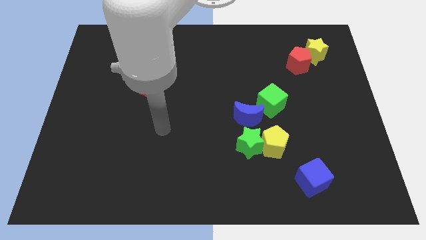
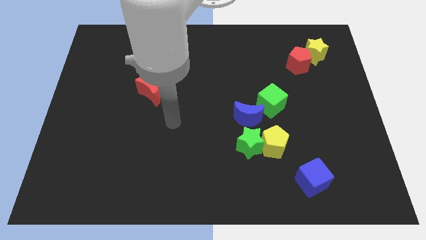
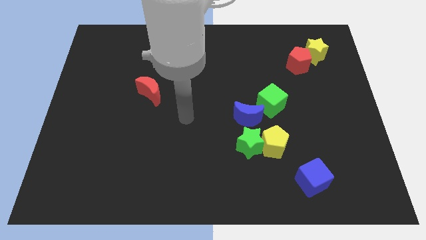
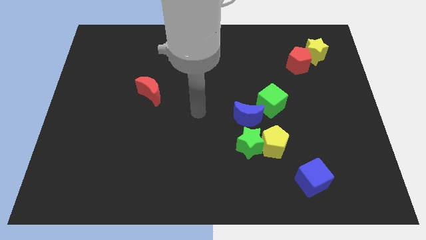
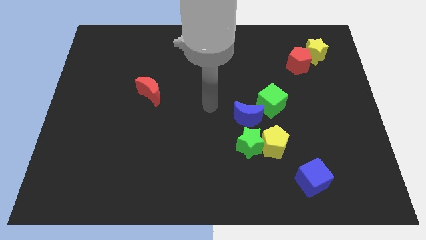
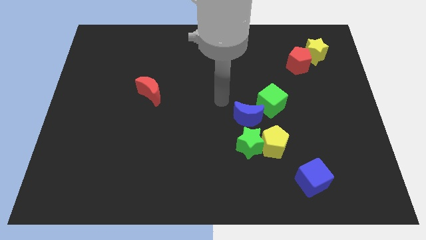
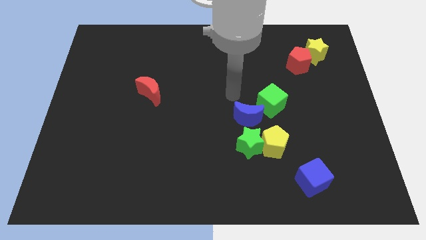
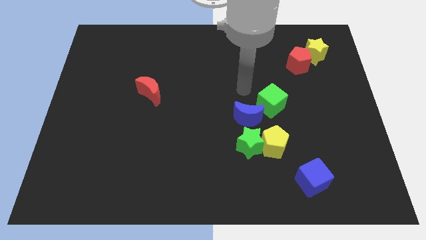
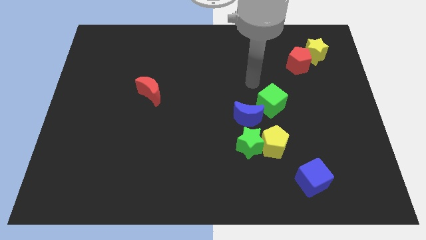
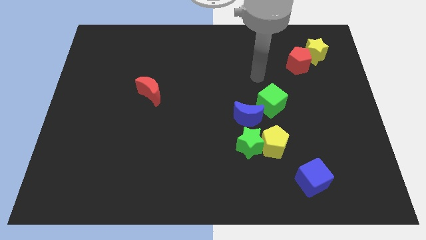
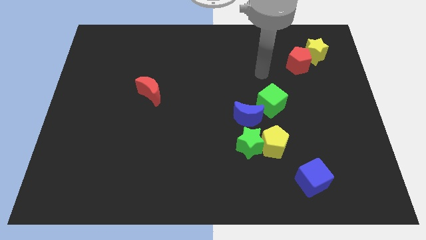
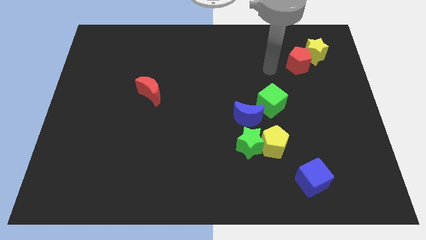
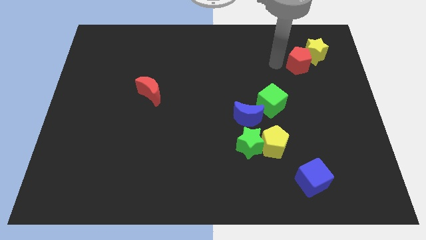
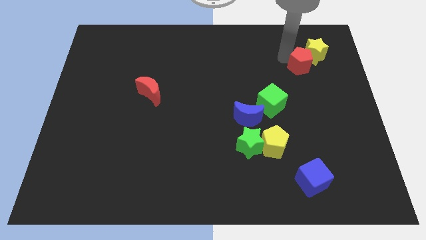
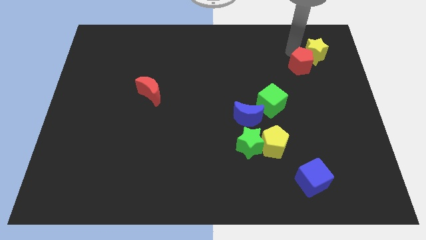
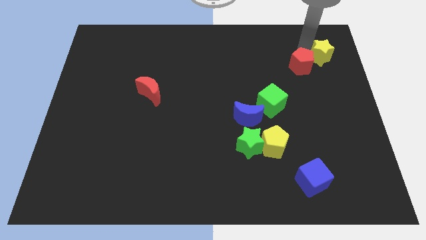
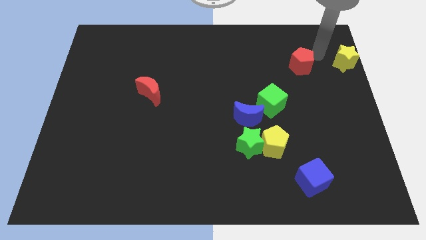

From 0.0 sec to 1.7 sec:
pull the red pentagon apart from the yellow star

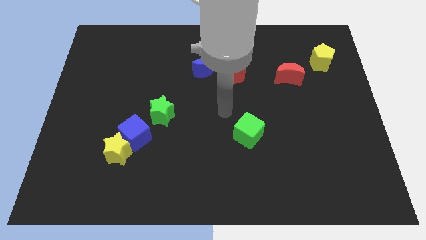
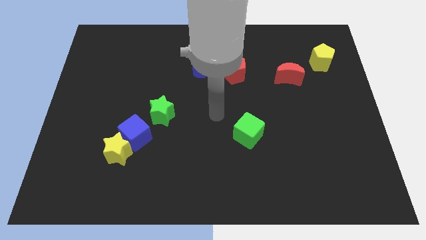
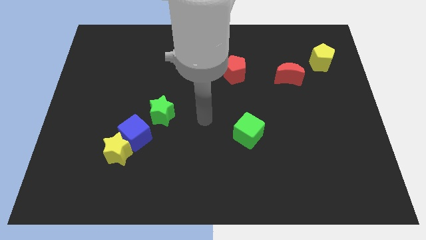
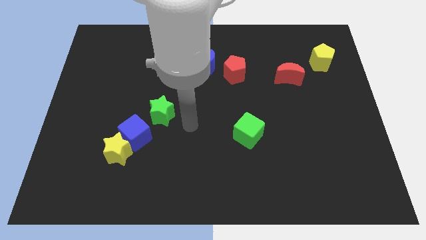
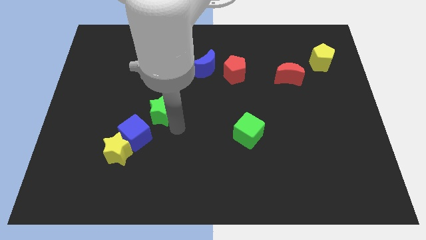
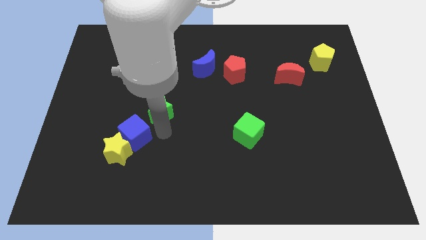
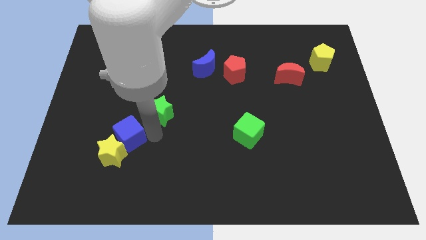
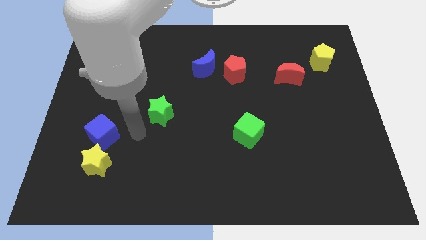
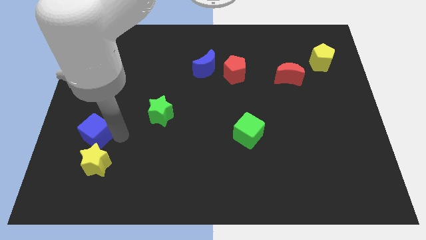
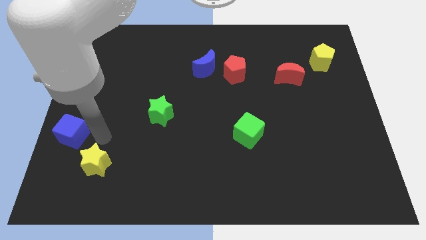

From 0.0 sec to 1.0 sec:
separate the yellow star from the blue cube

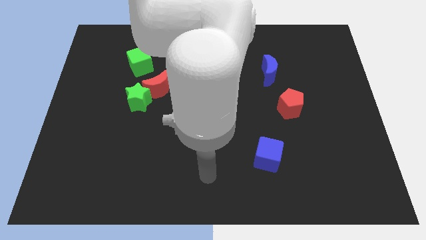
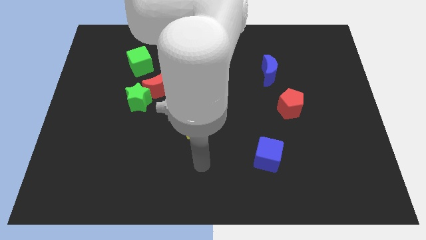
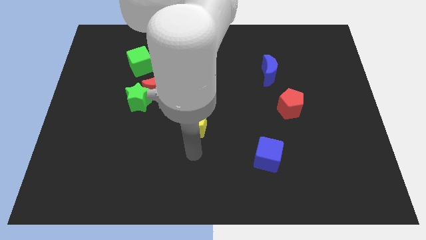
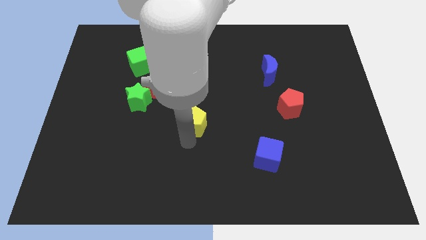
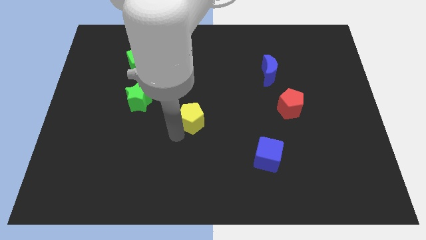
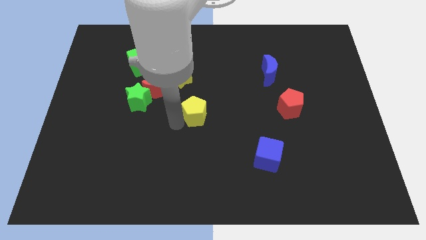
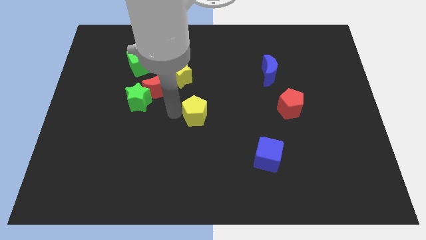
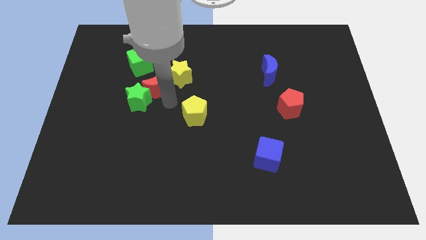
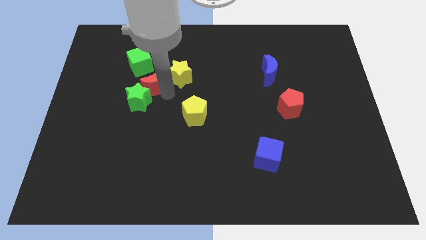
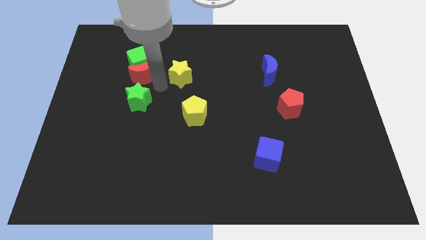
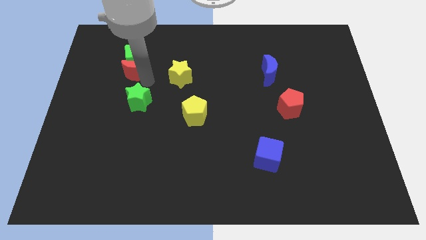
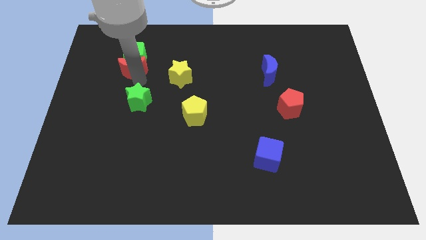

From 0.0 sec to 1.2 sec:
move the green star away from the red moon

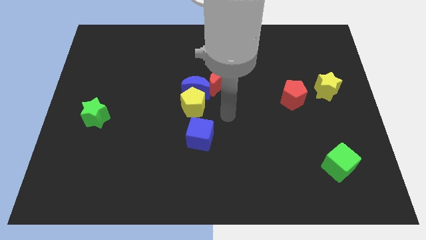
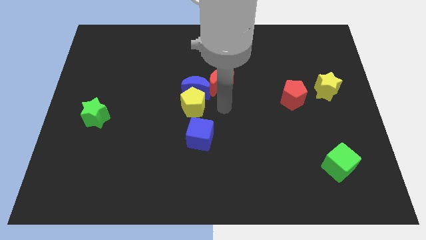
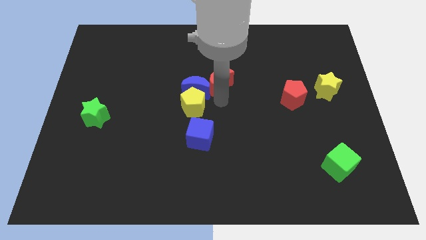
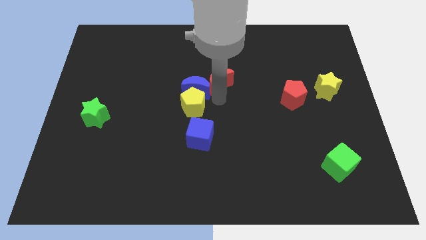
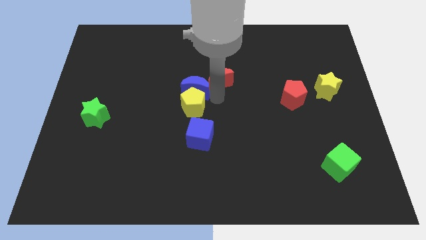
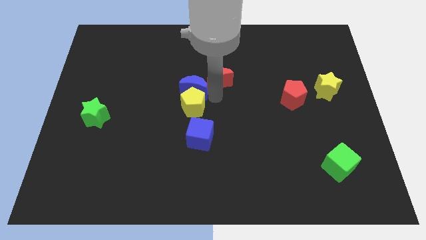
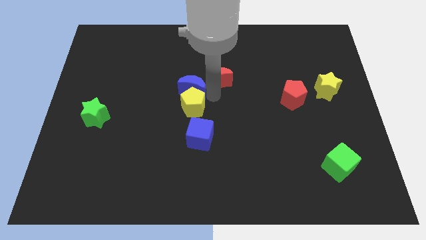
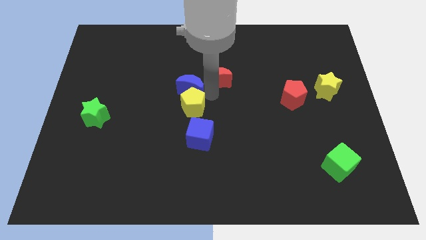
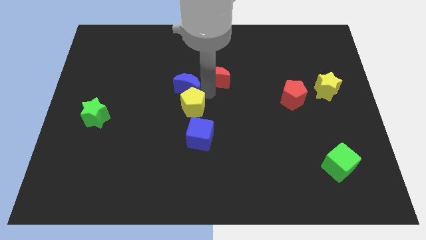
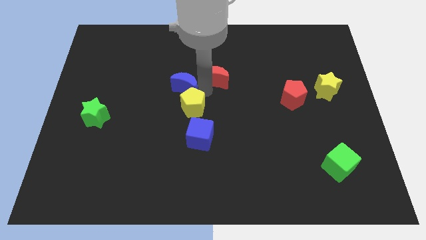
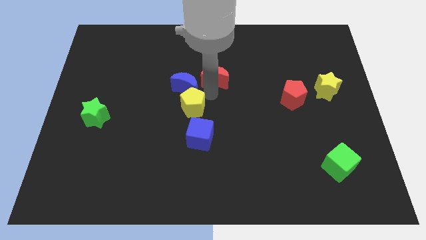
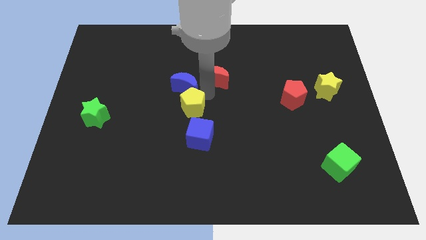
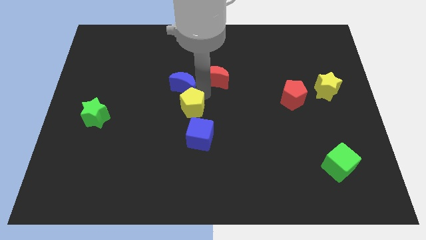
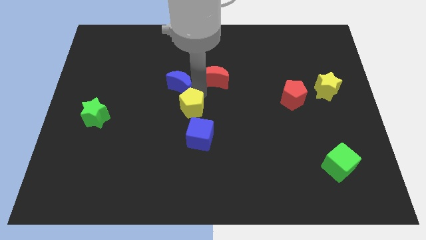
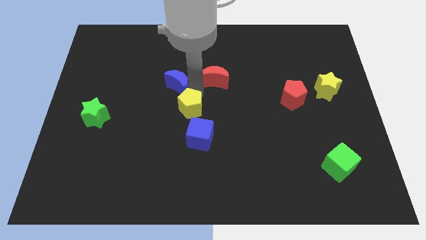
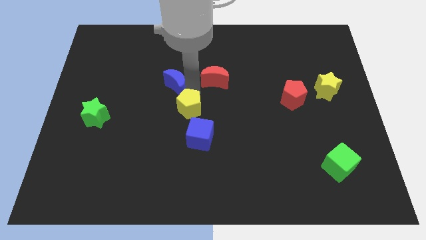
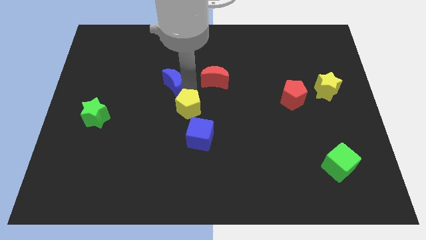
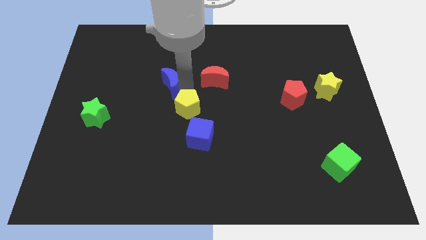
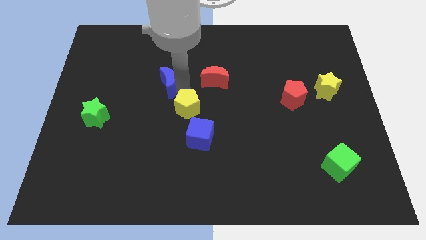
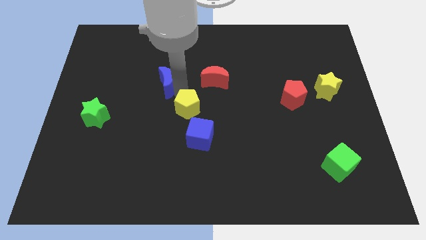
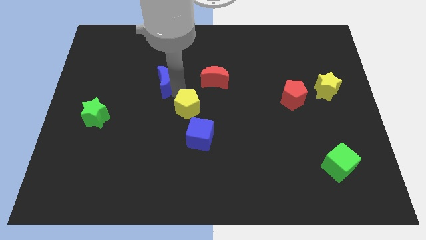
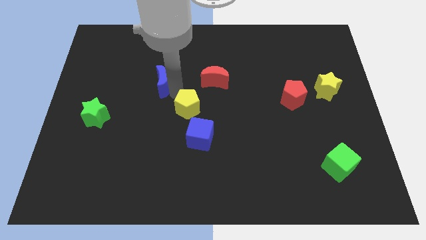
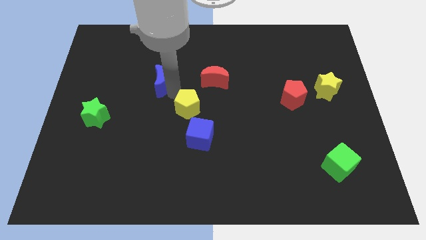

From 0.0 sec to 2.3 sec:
separate the blue moon from the yellow pentagon and red moon

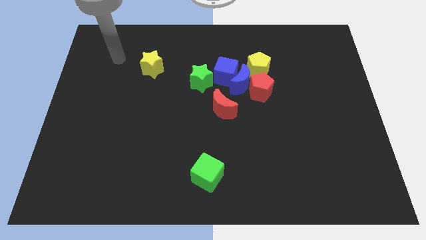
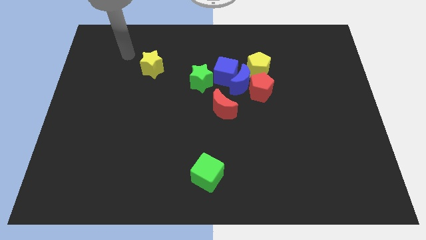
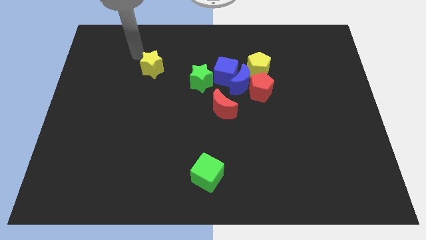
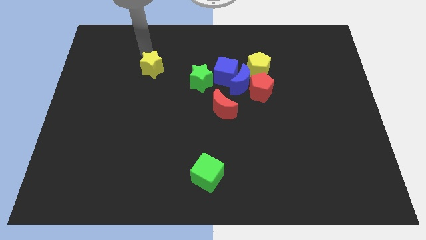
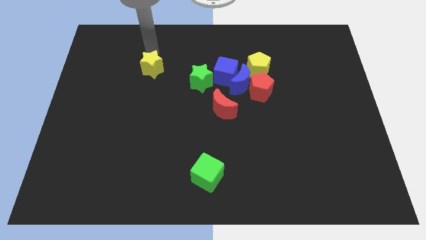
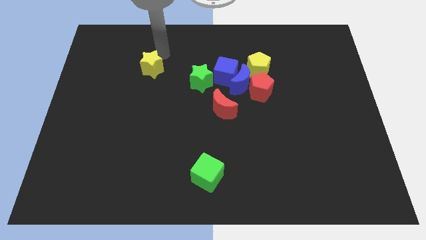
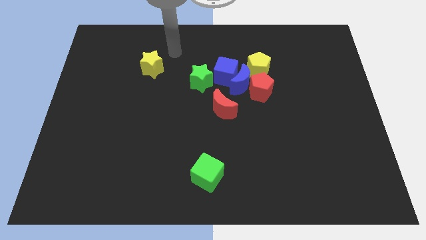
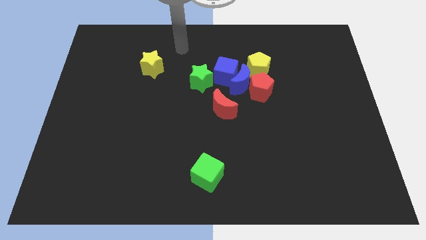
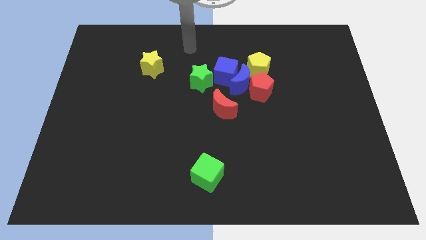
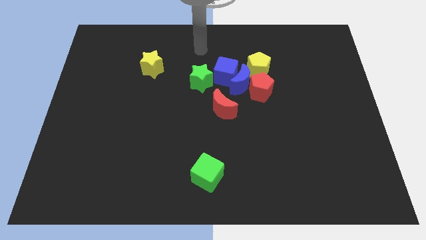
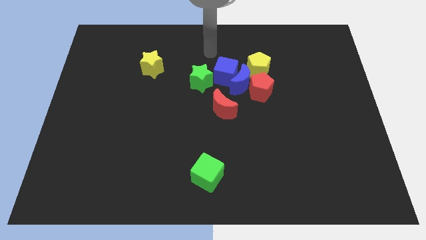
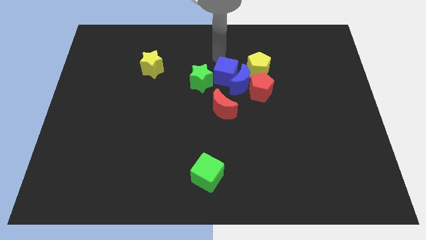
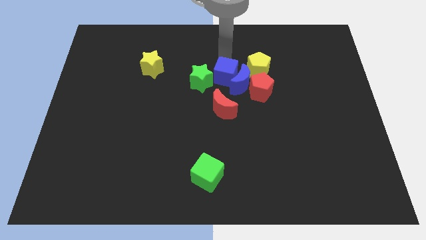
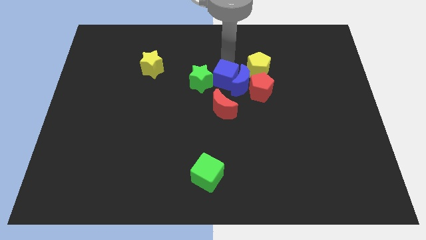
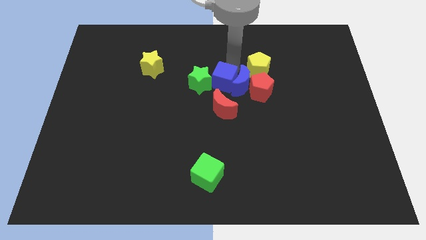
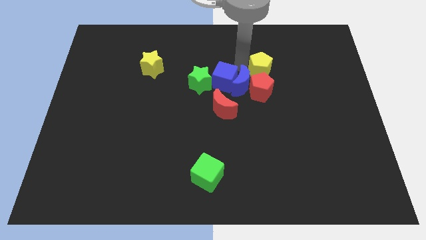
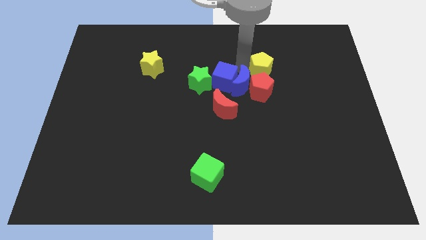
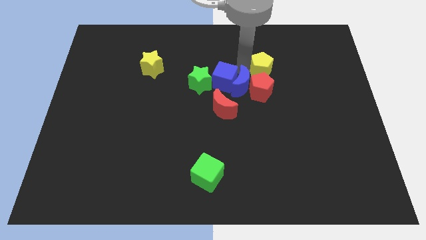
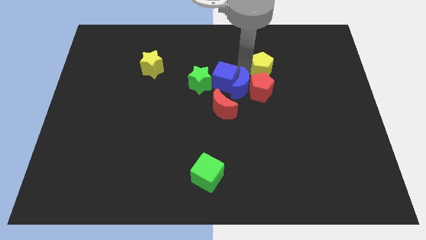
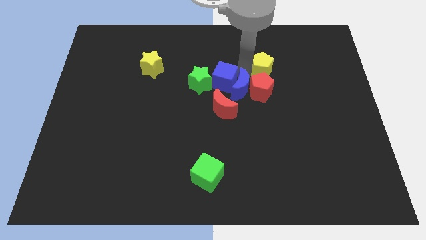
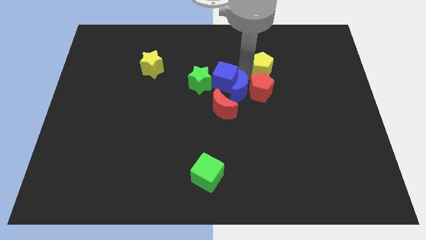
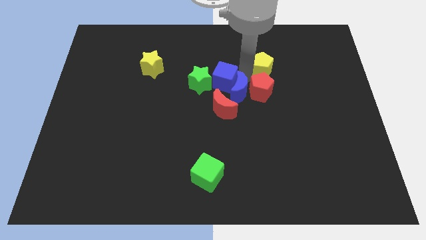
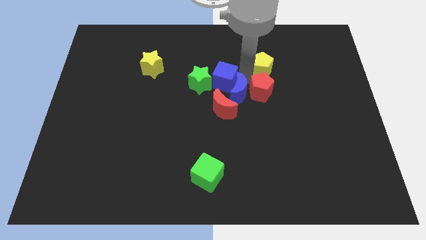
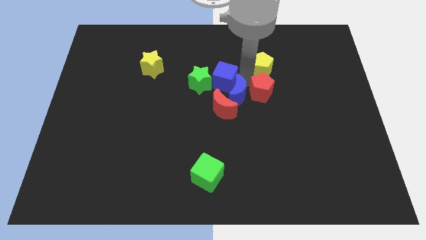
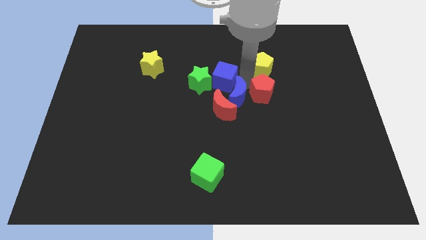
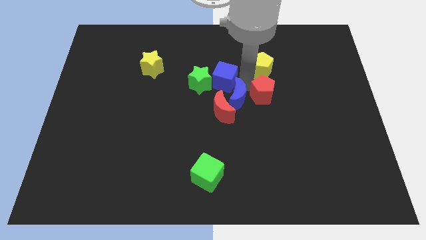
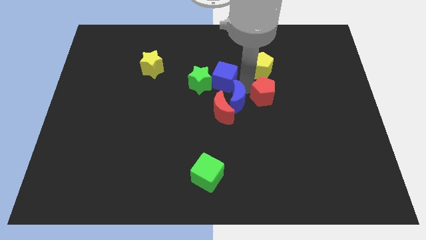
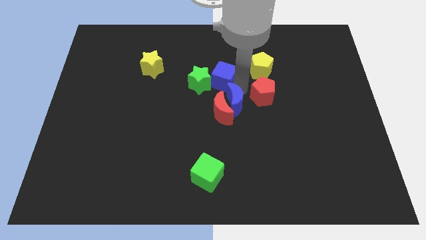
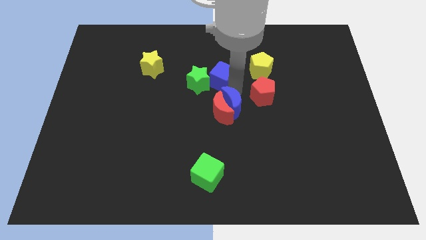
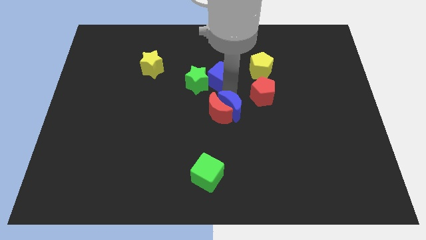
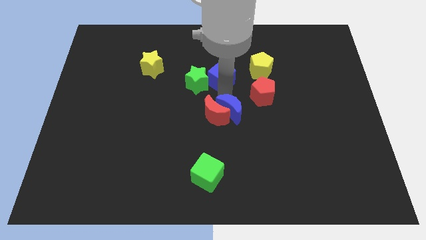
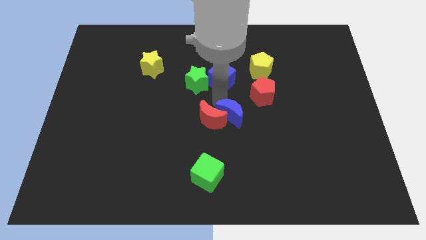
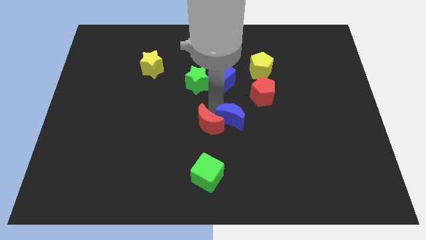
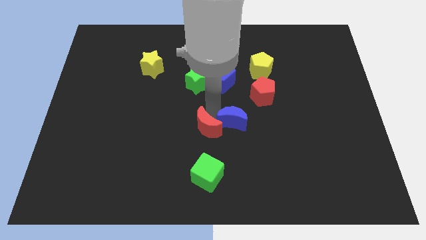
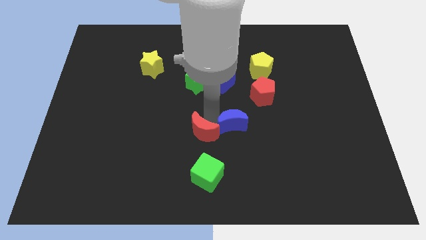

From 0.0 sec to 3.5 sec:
separate the blue moon from the clump
